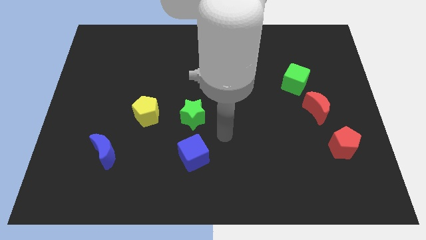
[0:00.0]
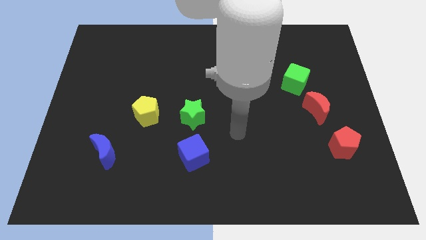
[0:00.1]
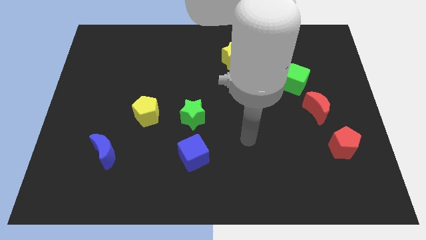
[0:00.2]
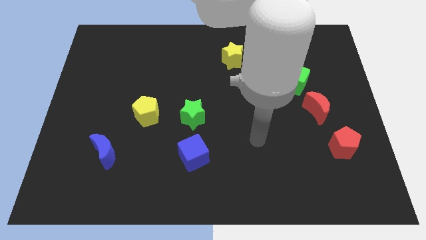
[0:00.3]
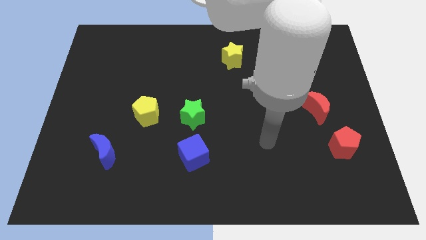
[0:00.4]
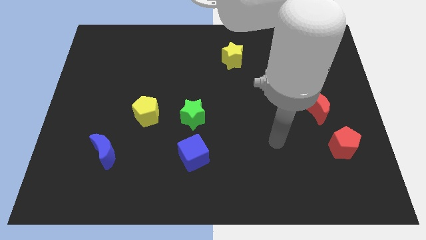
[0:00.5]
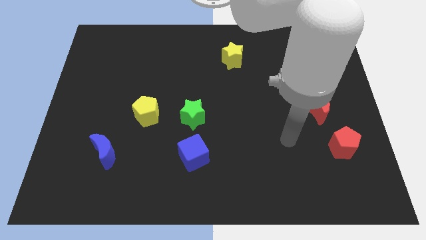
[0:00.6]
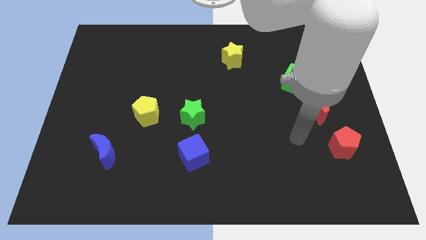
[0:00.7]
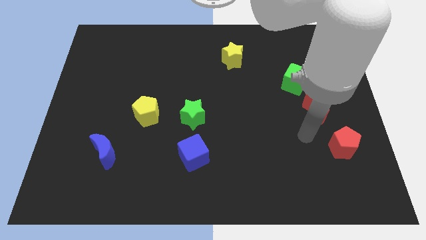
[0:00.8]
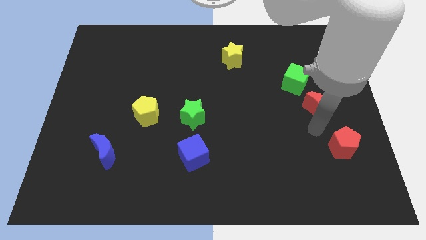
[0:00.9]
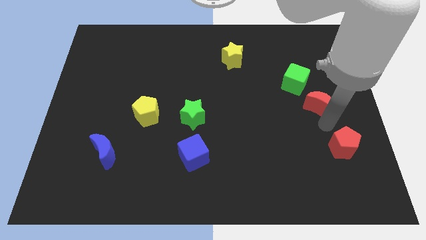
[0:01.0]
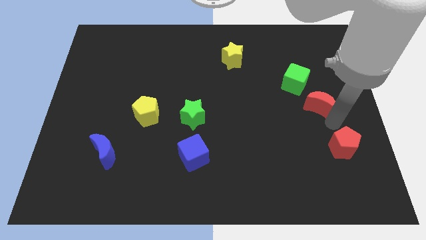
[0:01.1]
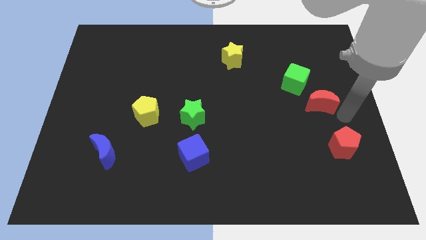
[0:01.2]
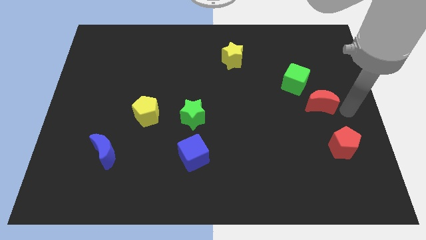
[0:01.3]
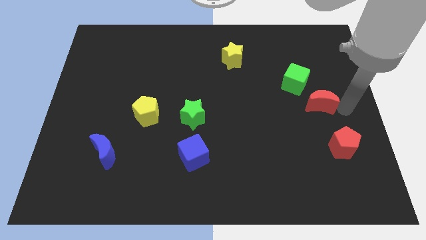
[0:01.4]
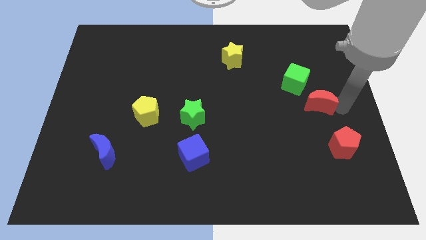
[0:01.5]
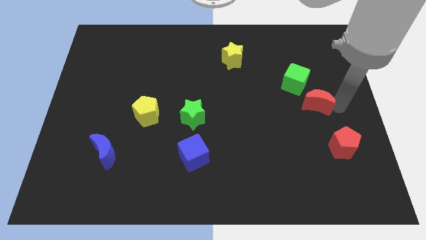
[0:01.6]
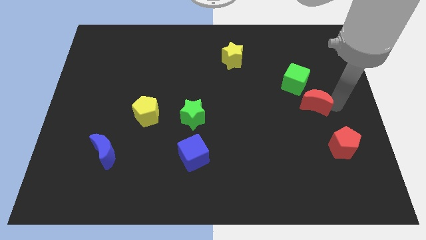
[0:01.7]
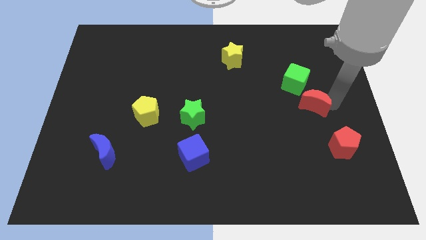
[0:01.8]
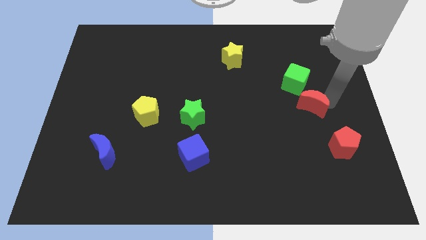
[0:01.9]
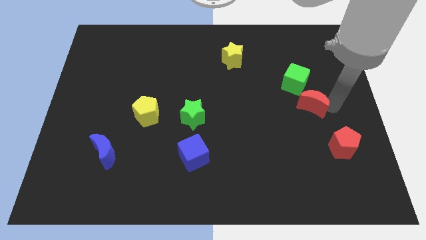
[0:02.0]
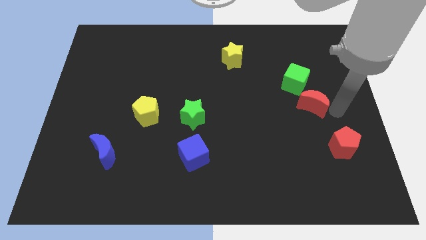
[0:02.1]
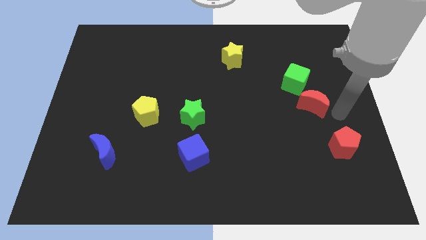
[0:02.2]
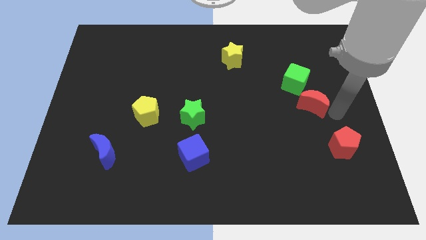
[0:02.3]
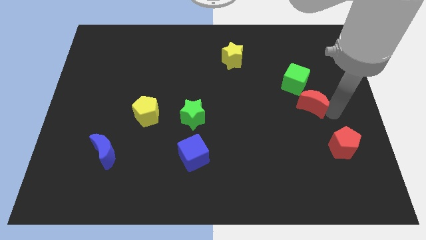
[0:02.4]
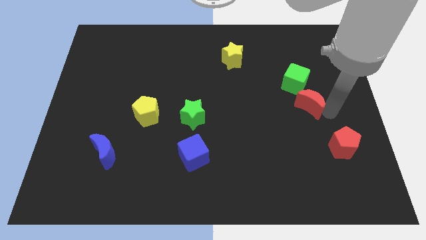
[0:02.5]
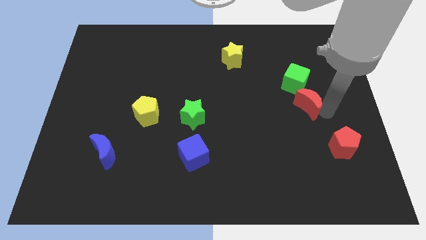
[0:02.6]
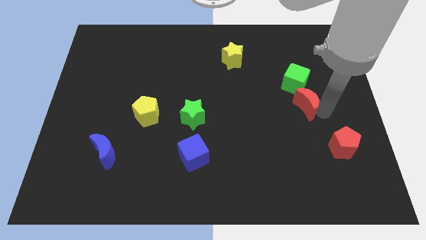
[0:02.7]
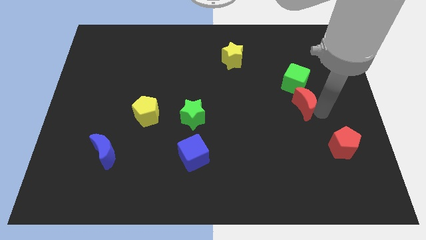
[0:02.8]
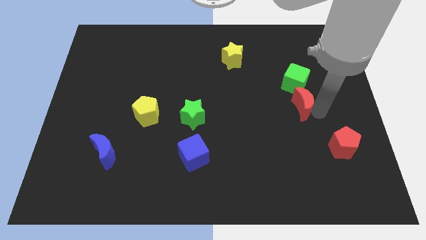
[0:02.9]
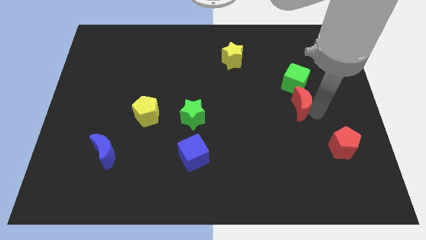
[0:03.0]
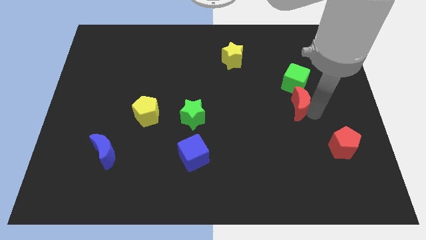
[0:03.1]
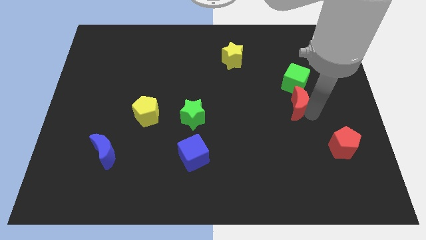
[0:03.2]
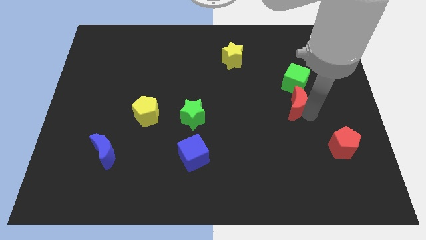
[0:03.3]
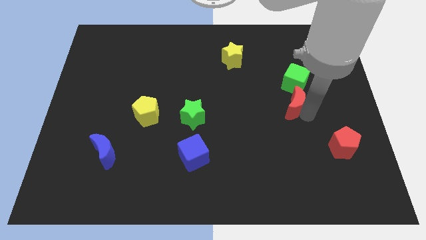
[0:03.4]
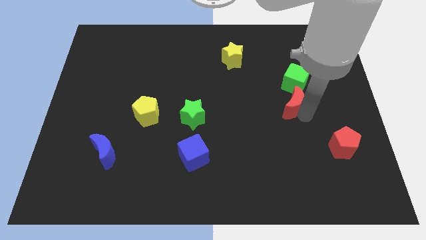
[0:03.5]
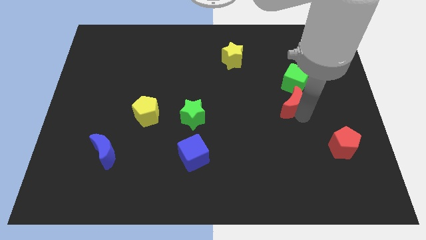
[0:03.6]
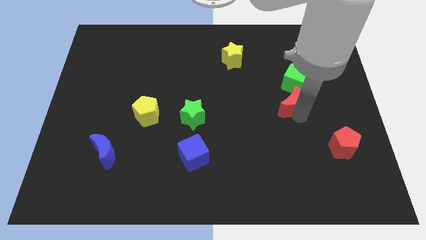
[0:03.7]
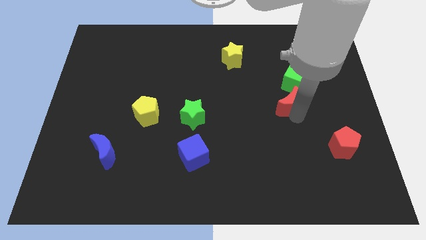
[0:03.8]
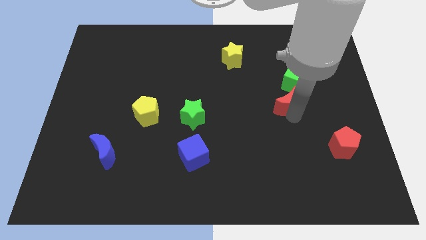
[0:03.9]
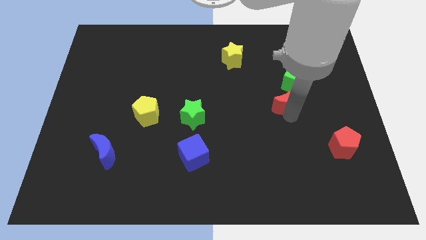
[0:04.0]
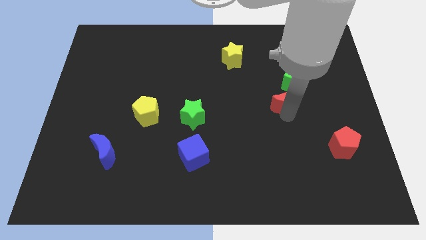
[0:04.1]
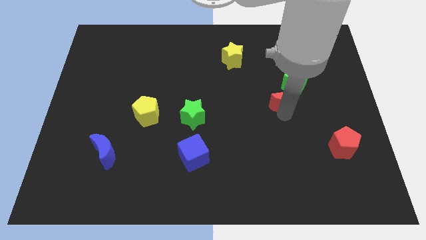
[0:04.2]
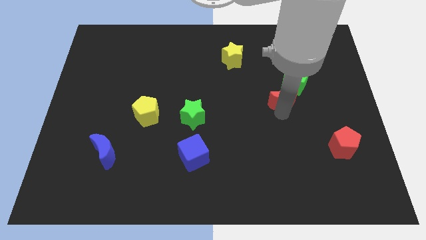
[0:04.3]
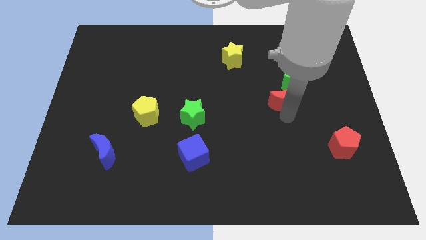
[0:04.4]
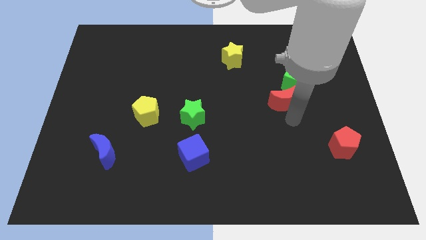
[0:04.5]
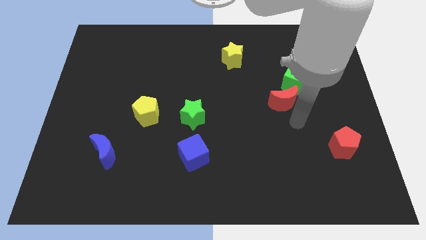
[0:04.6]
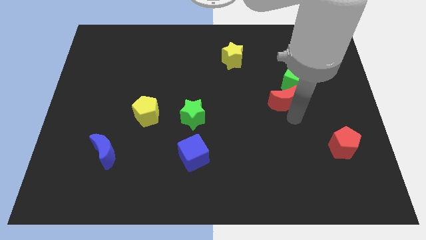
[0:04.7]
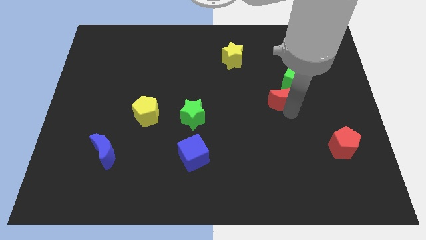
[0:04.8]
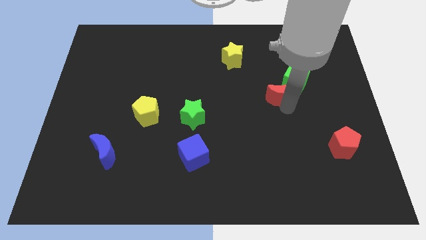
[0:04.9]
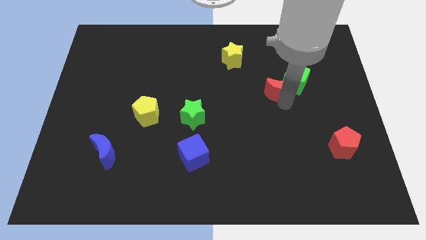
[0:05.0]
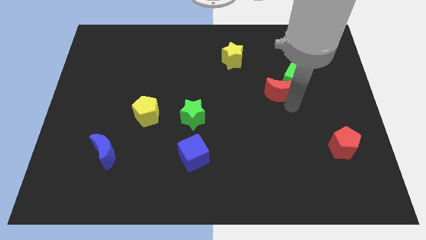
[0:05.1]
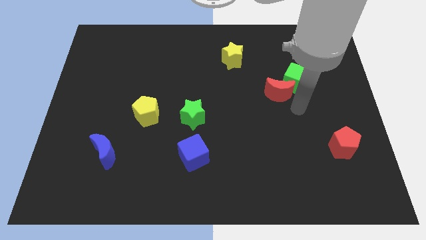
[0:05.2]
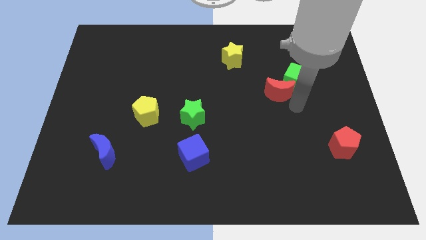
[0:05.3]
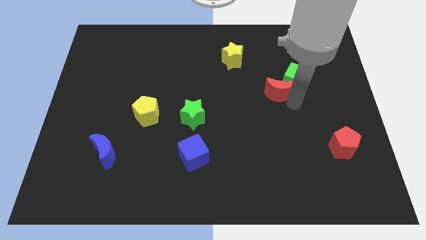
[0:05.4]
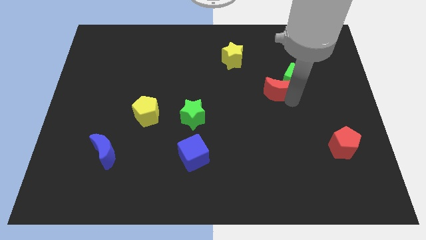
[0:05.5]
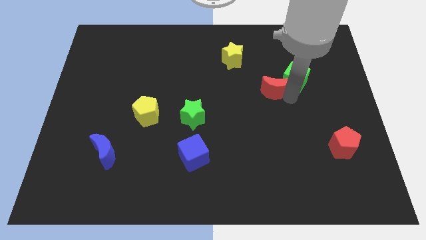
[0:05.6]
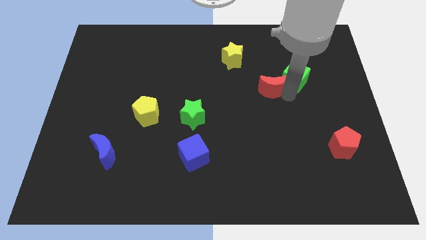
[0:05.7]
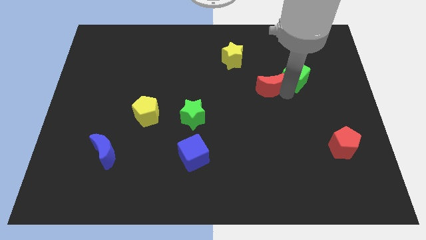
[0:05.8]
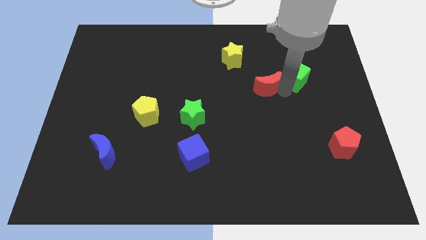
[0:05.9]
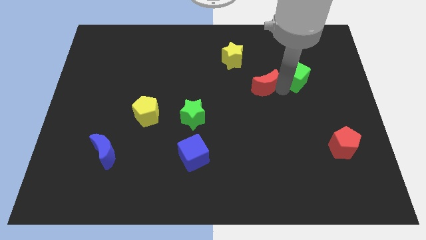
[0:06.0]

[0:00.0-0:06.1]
move the red moon to the bottom right of the yellow star

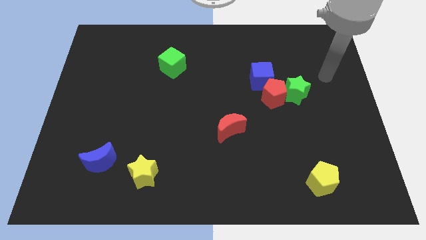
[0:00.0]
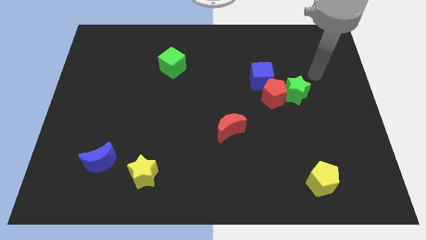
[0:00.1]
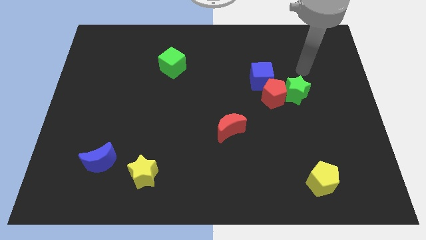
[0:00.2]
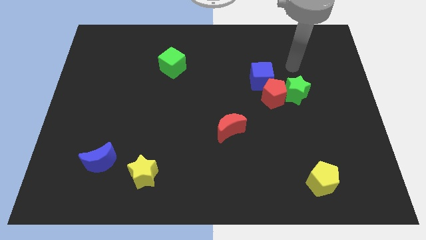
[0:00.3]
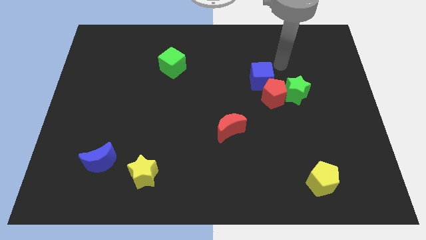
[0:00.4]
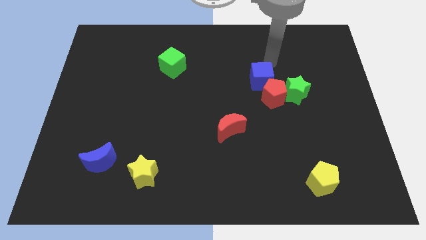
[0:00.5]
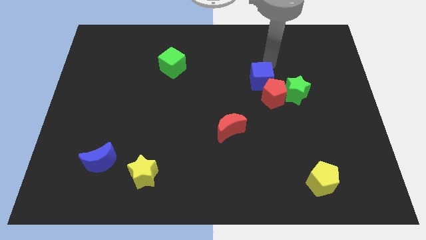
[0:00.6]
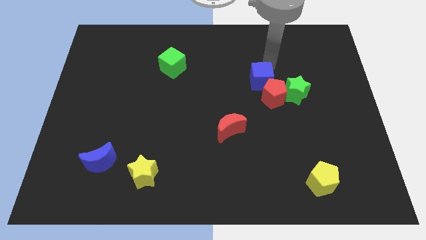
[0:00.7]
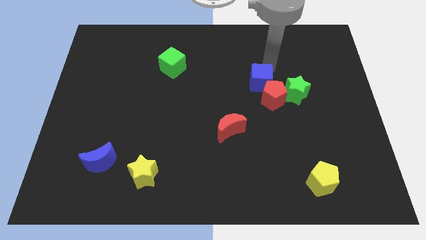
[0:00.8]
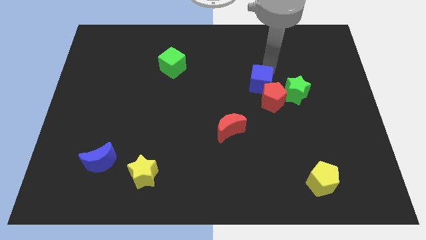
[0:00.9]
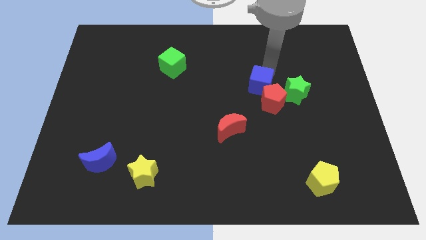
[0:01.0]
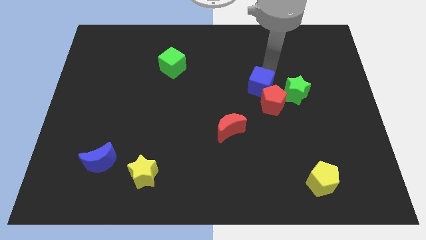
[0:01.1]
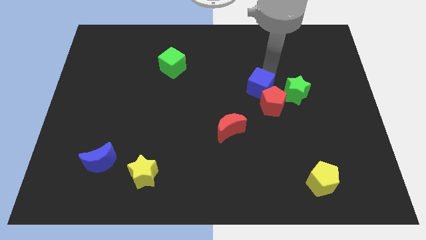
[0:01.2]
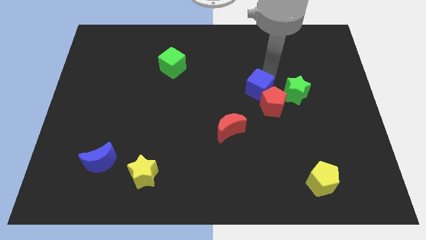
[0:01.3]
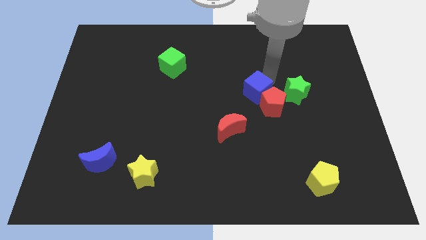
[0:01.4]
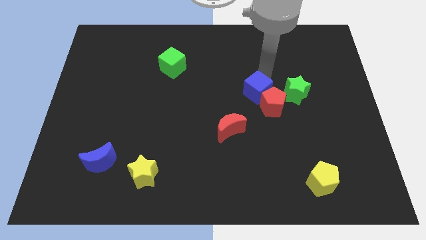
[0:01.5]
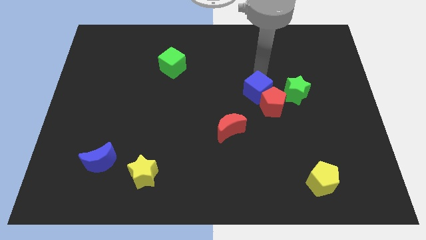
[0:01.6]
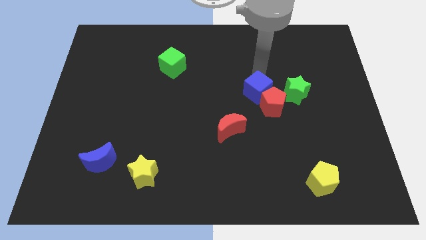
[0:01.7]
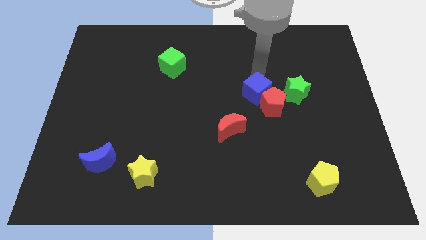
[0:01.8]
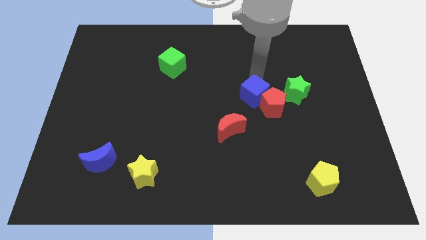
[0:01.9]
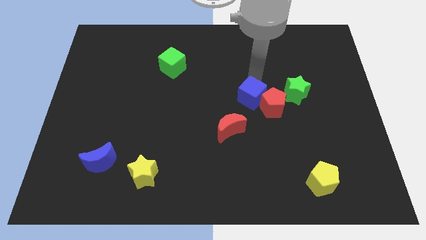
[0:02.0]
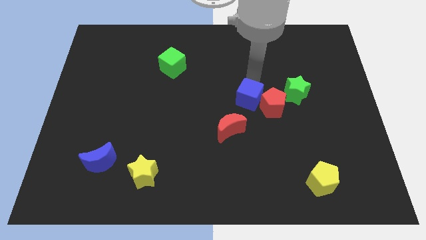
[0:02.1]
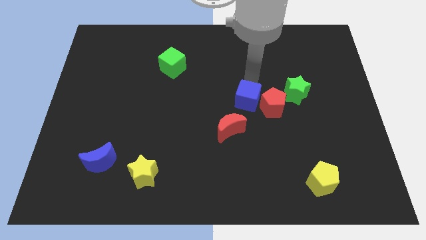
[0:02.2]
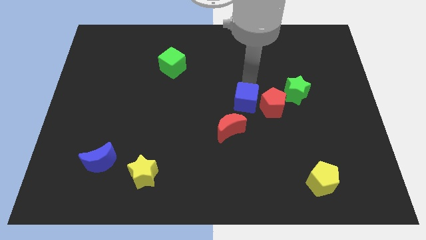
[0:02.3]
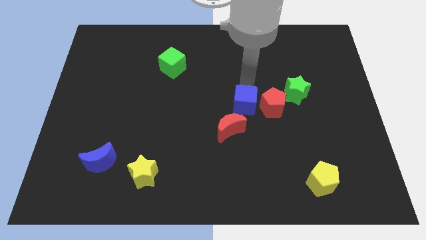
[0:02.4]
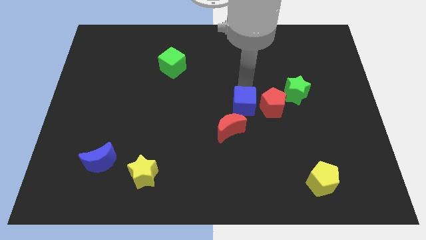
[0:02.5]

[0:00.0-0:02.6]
move the blue cube diagonally down and to the left of the red pentagon
